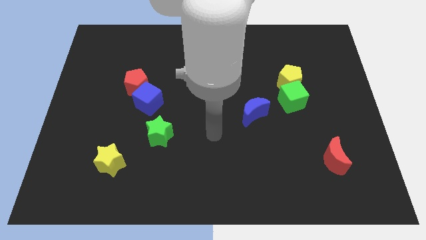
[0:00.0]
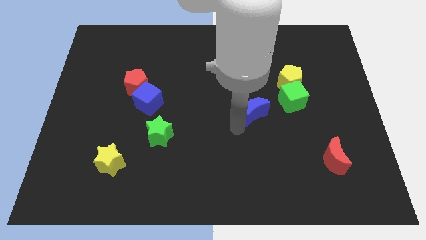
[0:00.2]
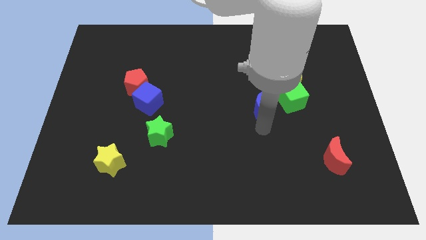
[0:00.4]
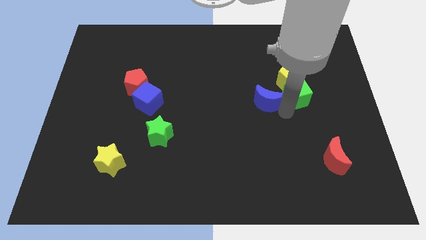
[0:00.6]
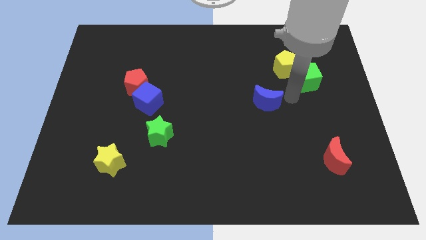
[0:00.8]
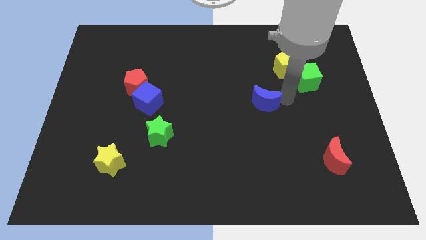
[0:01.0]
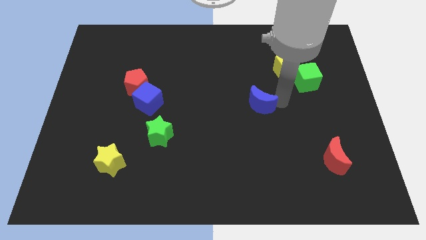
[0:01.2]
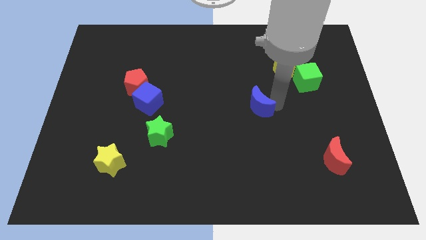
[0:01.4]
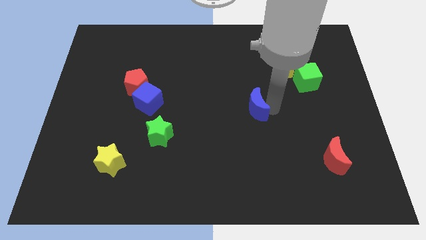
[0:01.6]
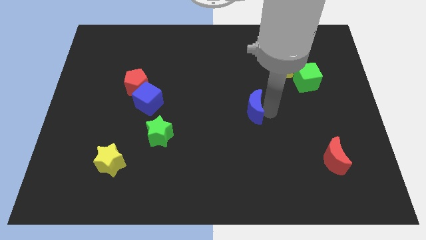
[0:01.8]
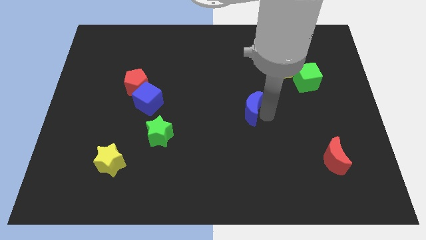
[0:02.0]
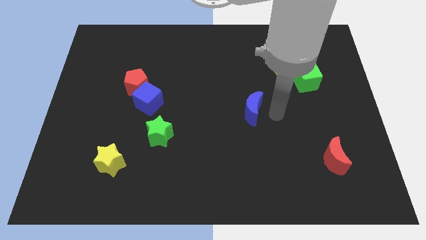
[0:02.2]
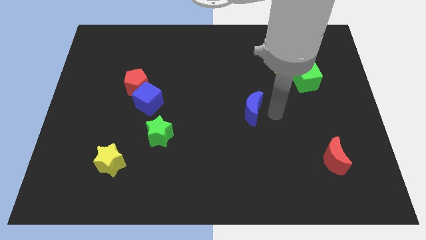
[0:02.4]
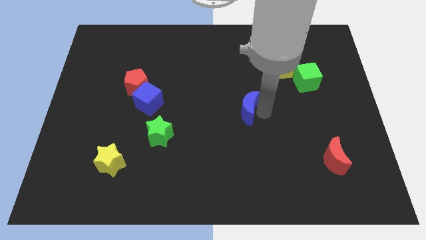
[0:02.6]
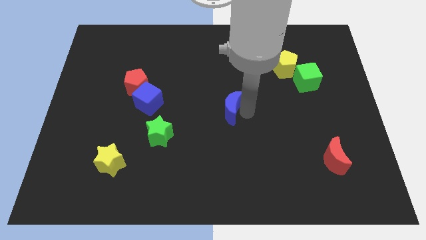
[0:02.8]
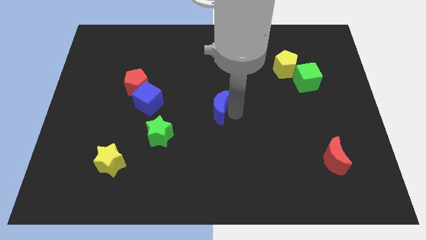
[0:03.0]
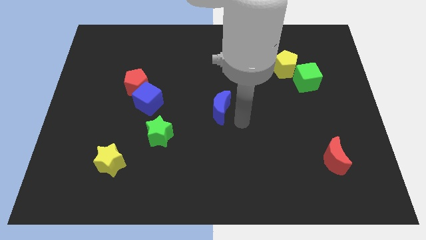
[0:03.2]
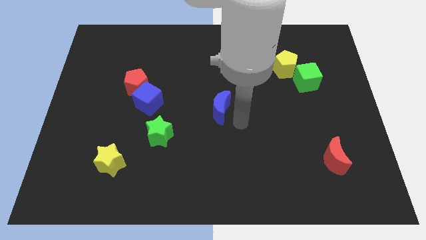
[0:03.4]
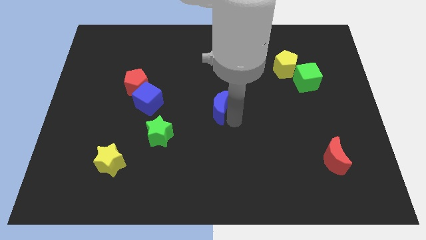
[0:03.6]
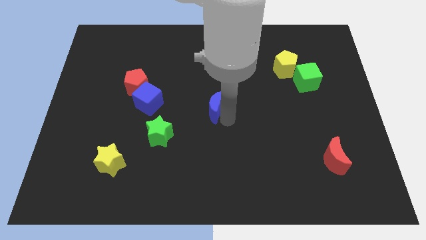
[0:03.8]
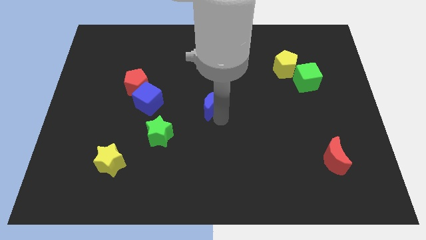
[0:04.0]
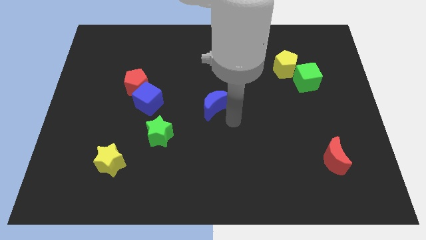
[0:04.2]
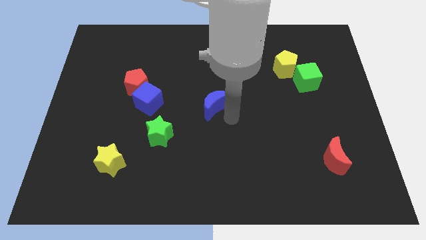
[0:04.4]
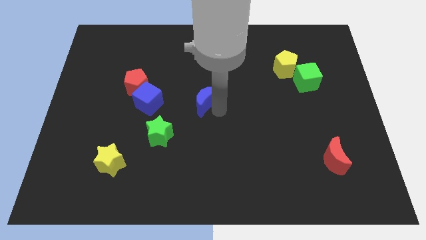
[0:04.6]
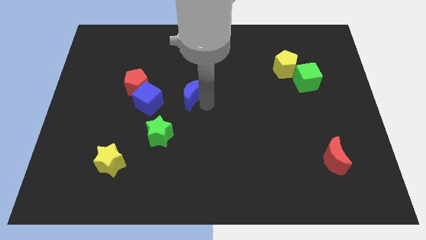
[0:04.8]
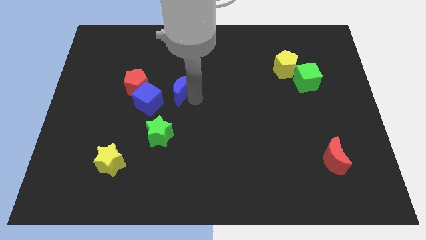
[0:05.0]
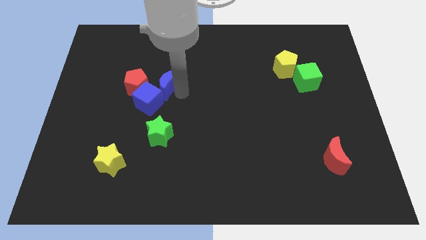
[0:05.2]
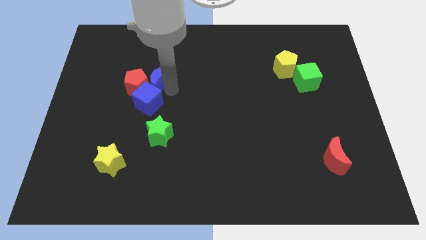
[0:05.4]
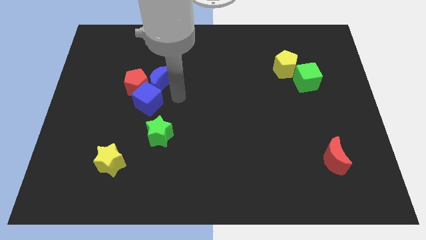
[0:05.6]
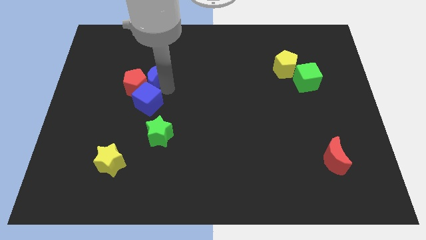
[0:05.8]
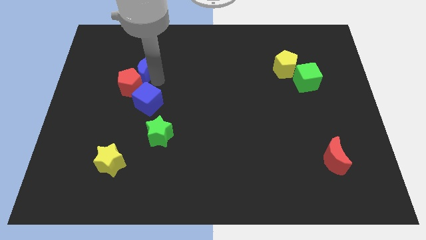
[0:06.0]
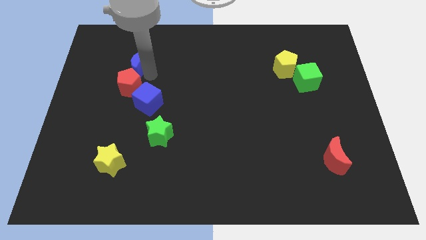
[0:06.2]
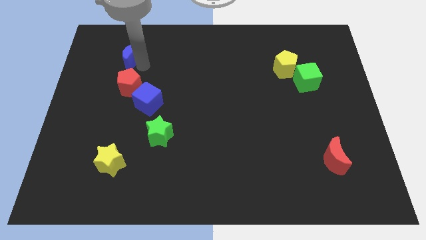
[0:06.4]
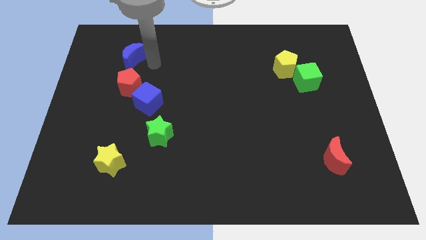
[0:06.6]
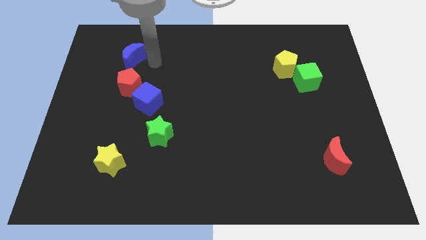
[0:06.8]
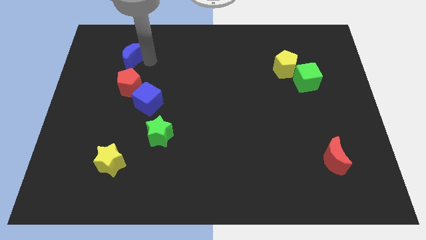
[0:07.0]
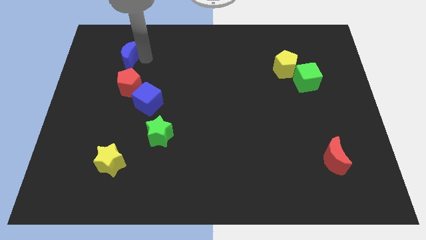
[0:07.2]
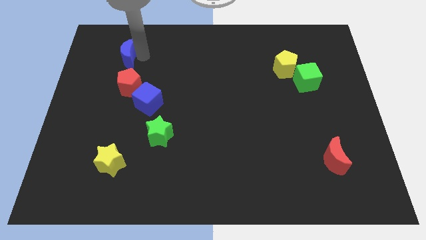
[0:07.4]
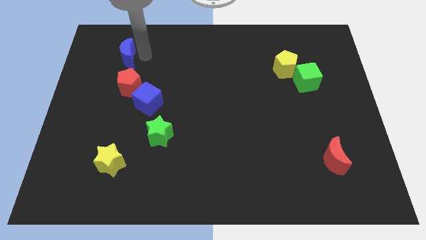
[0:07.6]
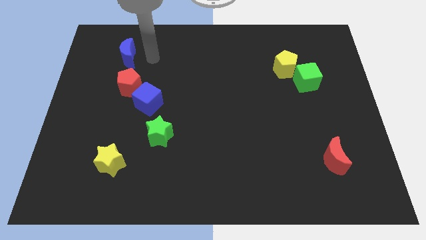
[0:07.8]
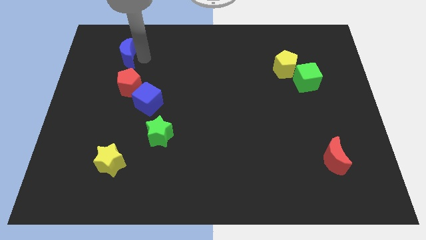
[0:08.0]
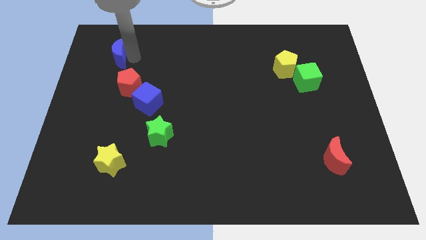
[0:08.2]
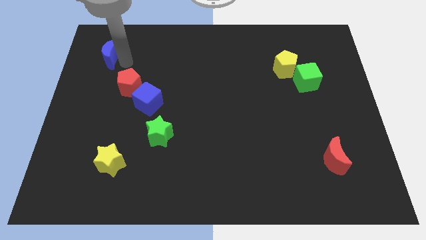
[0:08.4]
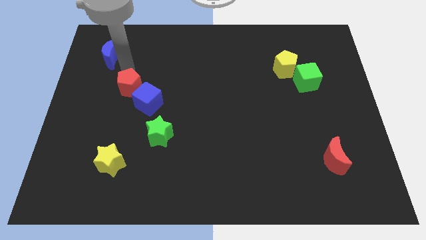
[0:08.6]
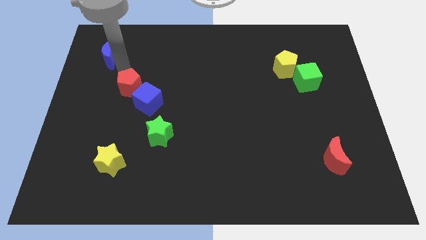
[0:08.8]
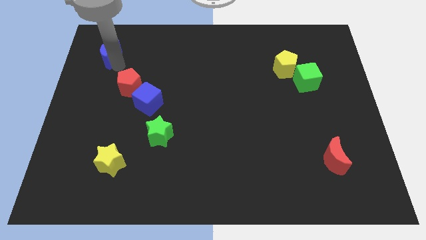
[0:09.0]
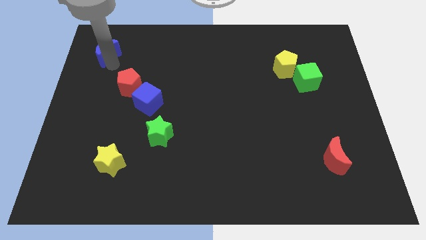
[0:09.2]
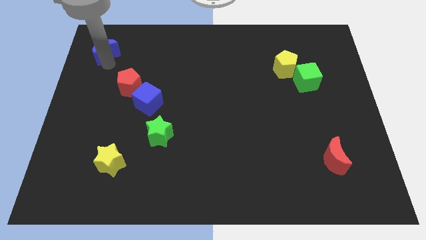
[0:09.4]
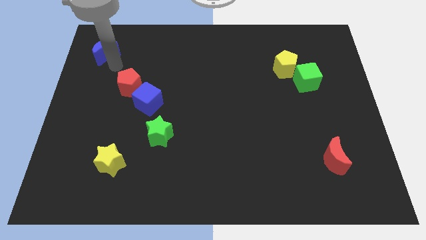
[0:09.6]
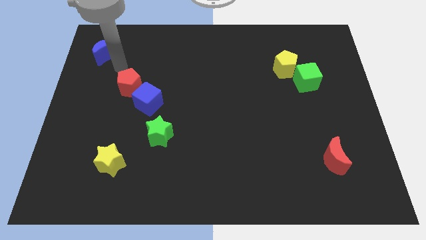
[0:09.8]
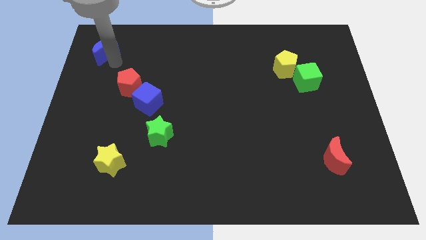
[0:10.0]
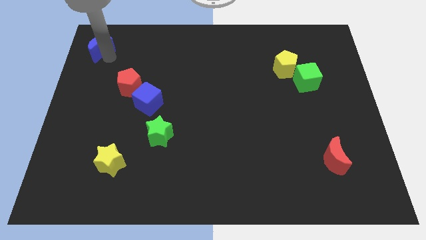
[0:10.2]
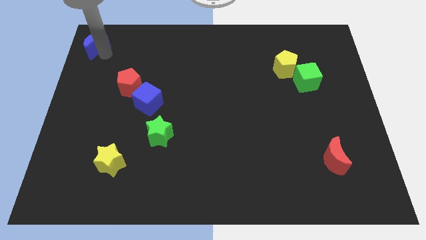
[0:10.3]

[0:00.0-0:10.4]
put the blue moon to the top left

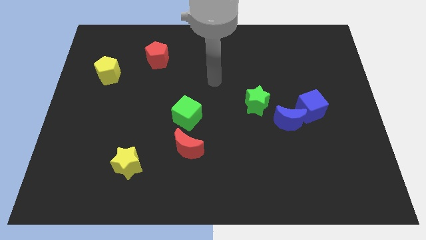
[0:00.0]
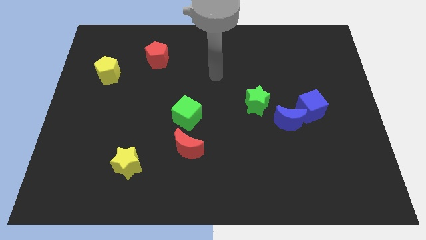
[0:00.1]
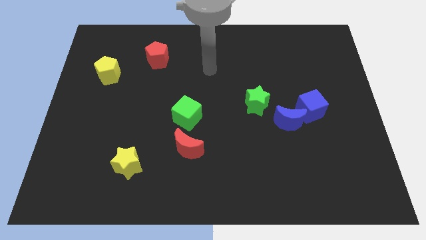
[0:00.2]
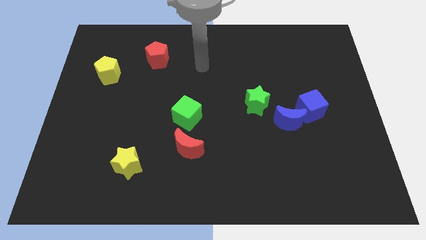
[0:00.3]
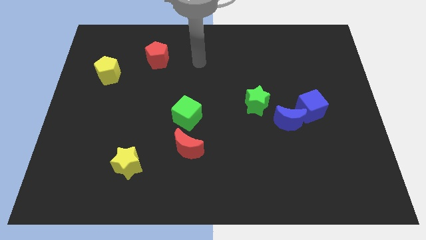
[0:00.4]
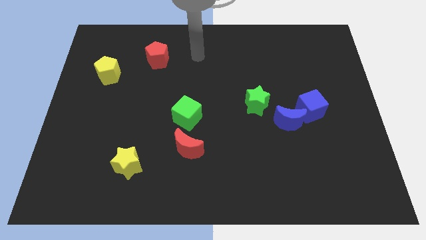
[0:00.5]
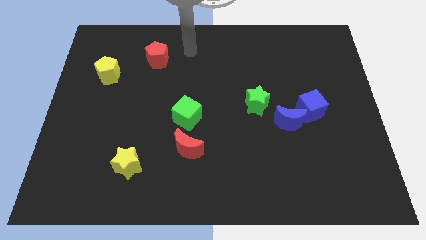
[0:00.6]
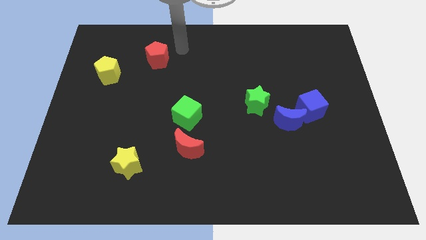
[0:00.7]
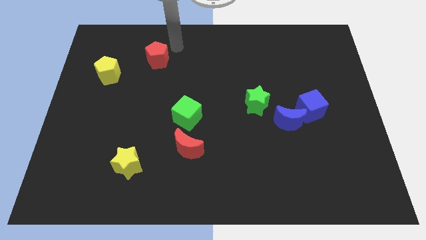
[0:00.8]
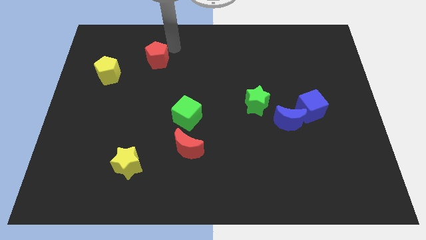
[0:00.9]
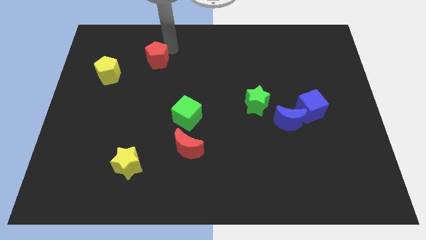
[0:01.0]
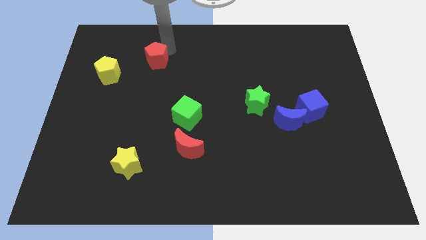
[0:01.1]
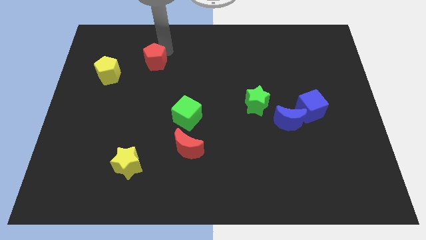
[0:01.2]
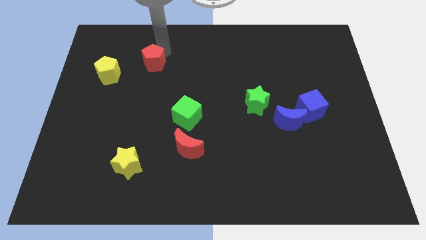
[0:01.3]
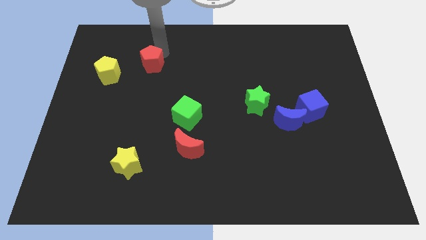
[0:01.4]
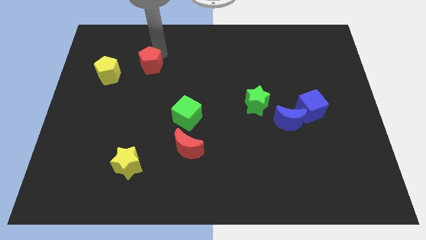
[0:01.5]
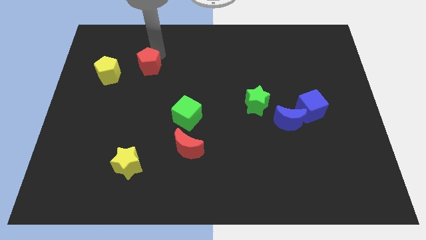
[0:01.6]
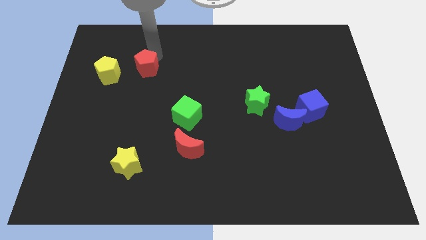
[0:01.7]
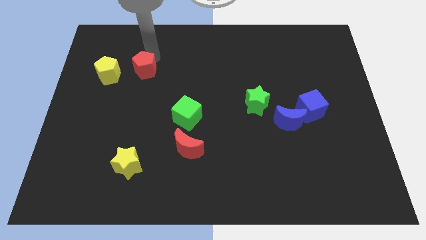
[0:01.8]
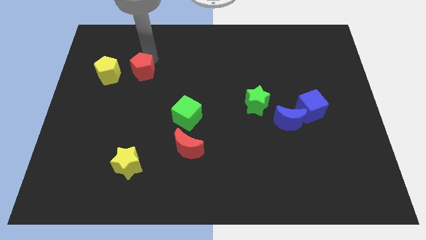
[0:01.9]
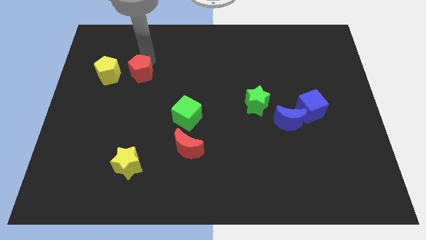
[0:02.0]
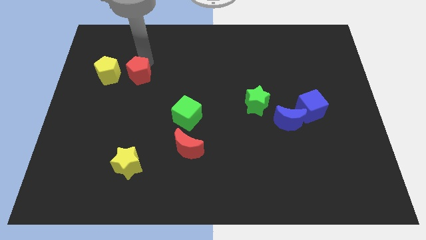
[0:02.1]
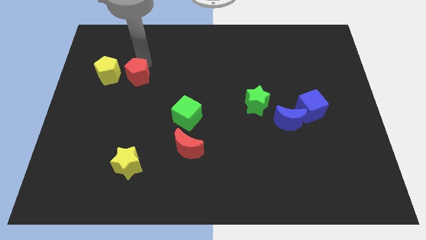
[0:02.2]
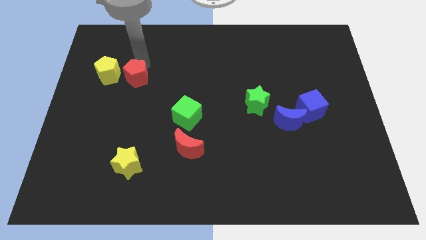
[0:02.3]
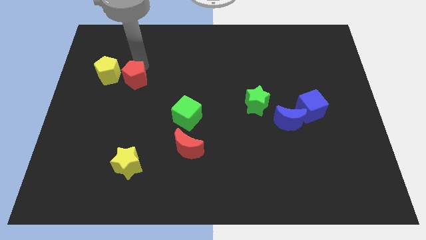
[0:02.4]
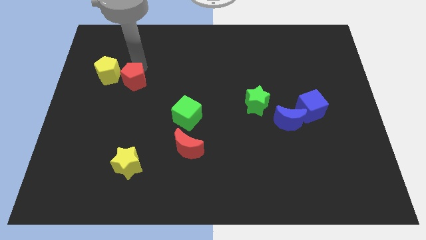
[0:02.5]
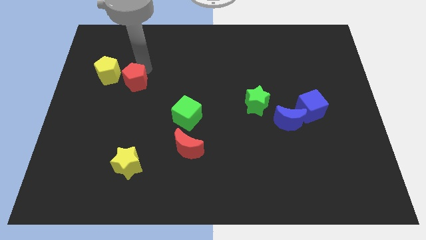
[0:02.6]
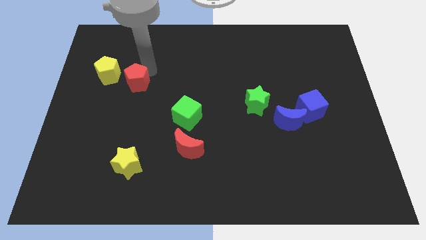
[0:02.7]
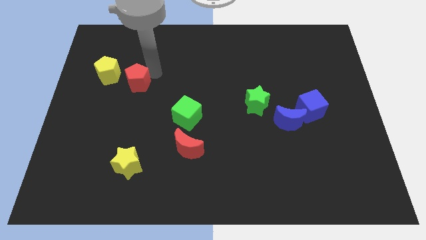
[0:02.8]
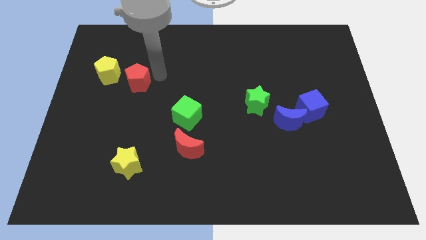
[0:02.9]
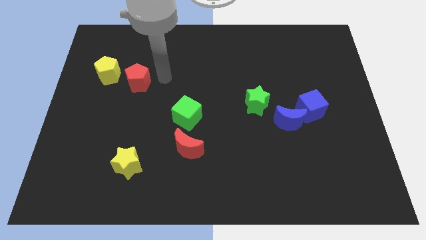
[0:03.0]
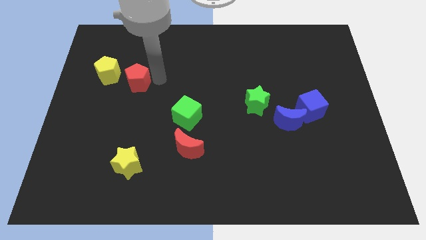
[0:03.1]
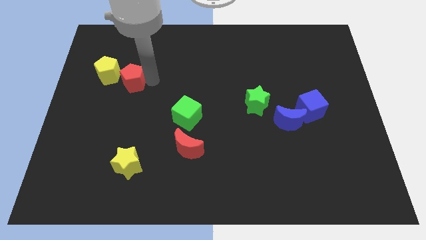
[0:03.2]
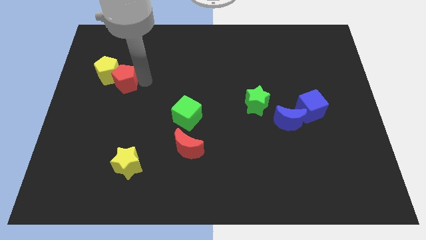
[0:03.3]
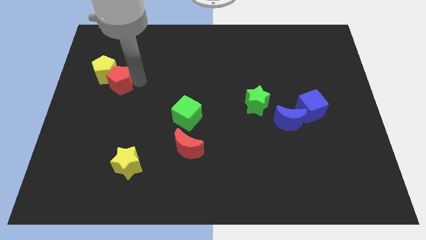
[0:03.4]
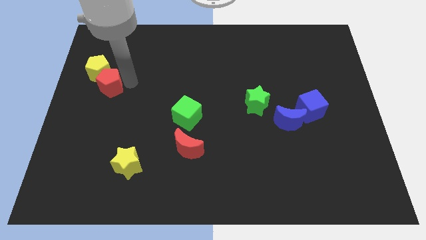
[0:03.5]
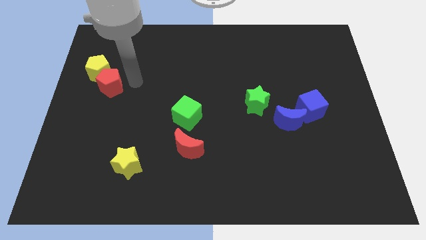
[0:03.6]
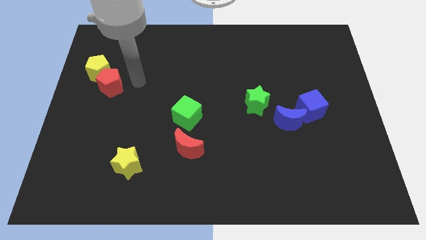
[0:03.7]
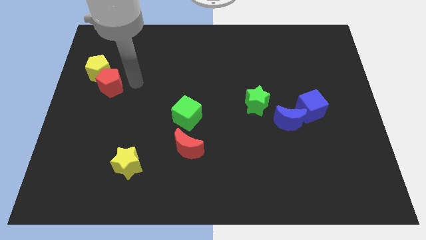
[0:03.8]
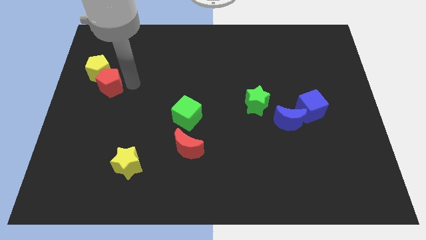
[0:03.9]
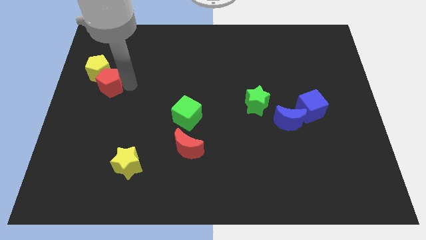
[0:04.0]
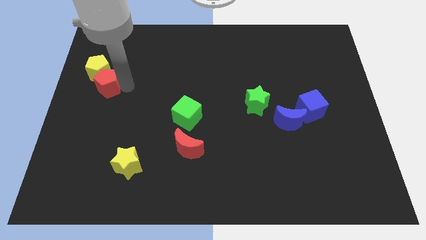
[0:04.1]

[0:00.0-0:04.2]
slide the red pentagon to the left side
